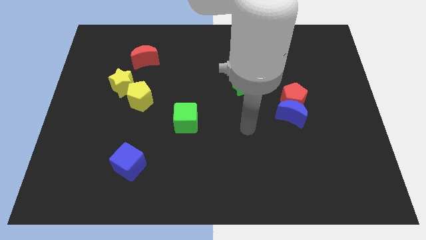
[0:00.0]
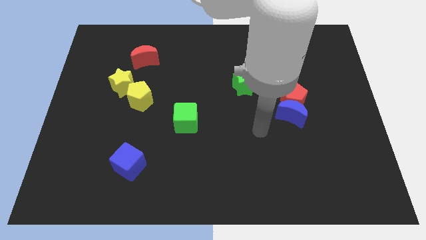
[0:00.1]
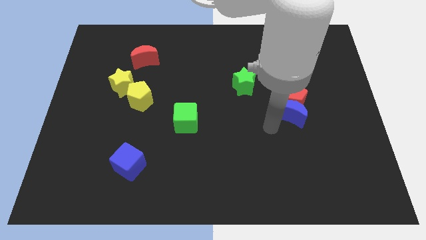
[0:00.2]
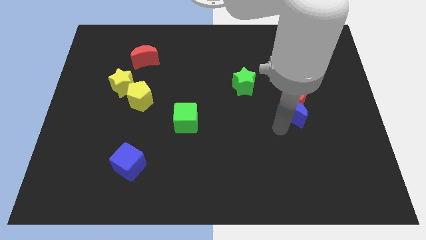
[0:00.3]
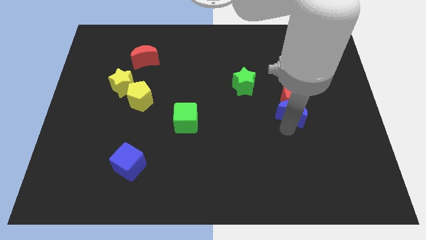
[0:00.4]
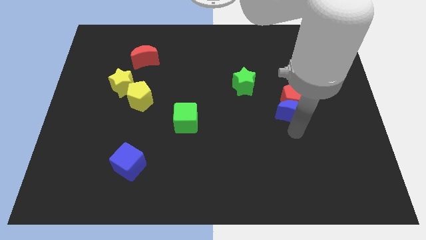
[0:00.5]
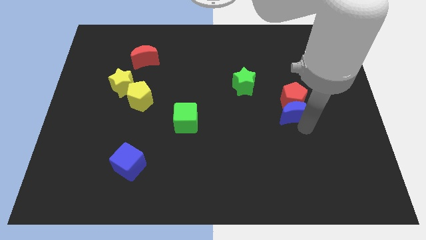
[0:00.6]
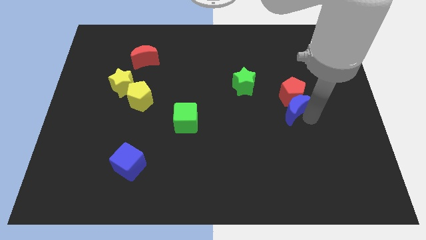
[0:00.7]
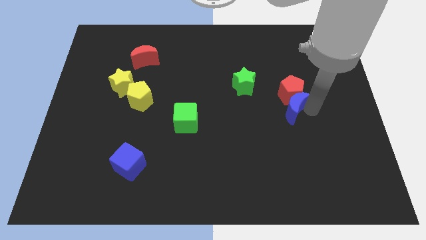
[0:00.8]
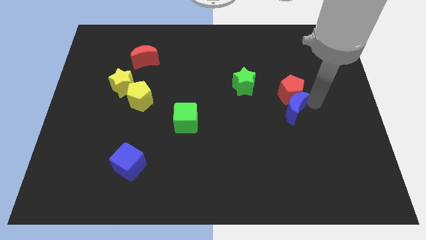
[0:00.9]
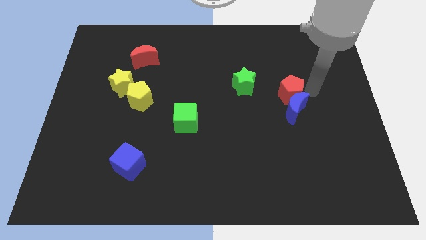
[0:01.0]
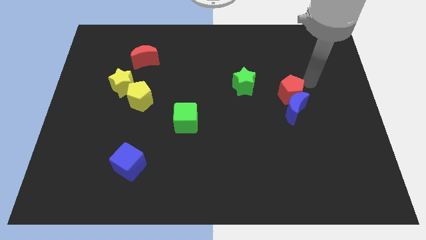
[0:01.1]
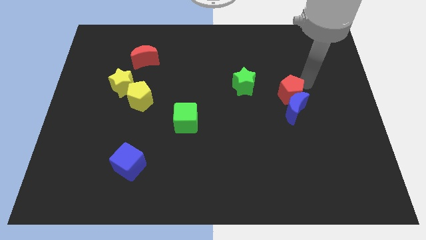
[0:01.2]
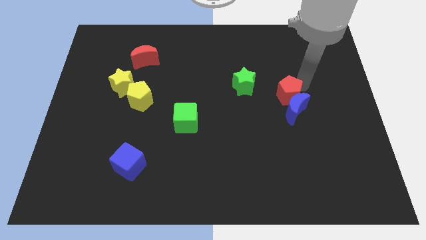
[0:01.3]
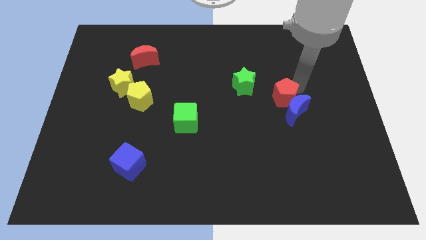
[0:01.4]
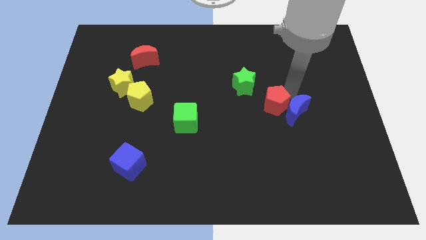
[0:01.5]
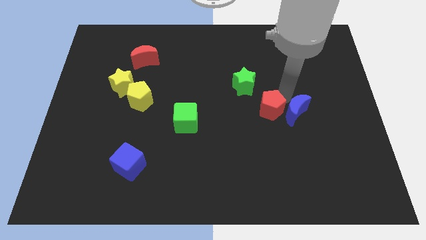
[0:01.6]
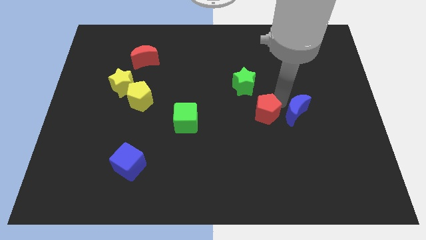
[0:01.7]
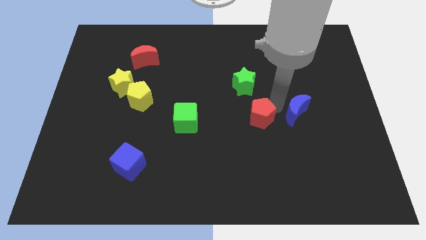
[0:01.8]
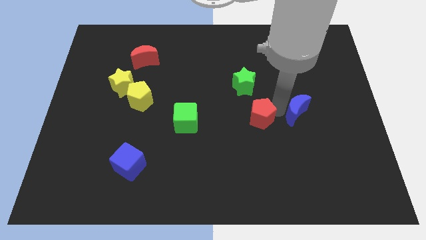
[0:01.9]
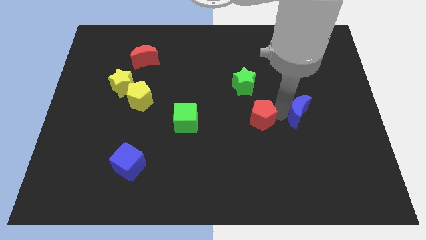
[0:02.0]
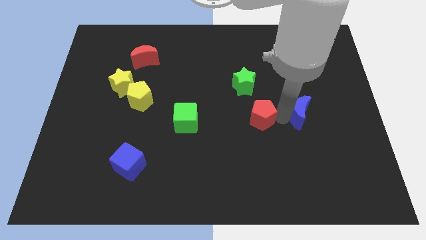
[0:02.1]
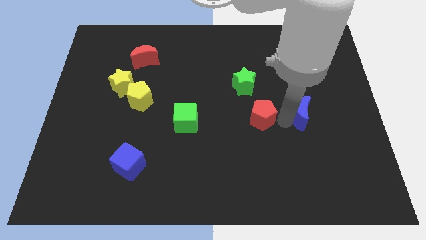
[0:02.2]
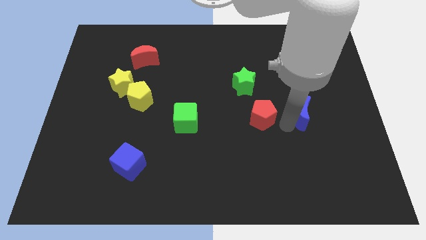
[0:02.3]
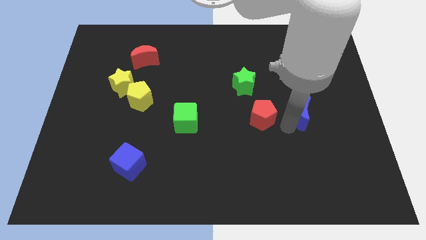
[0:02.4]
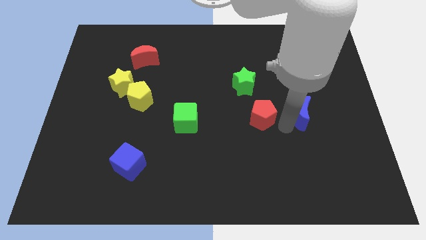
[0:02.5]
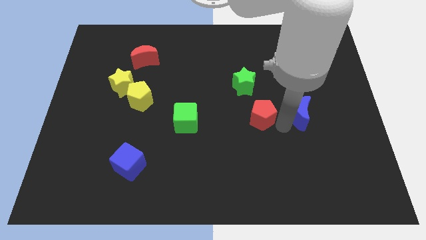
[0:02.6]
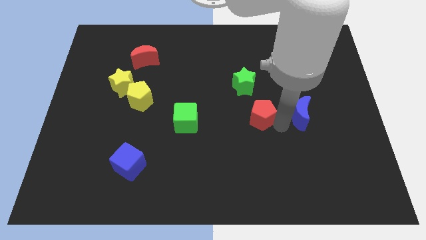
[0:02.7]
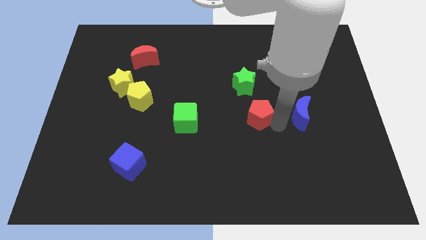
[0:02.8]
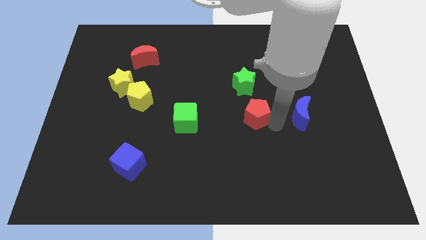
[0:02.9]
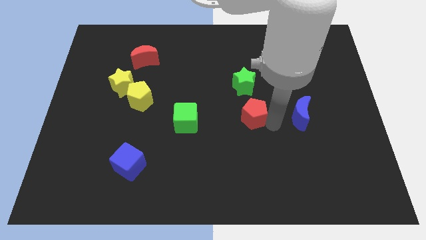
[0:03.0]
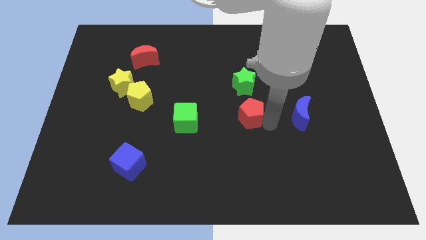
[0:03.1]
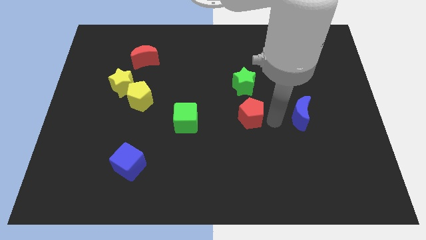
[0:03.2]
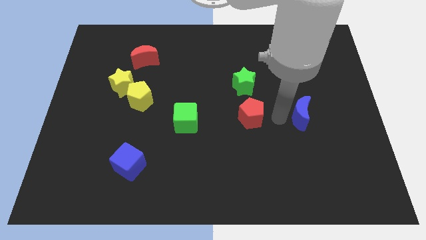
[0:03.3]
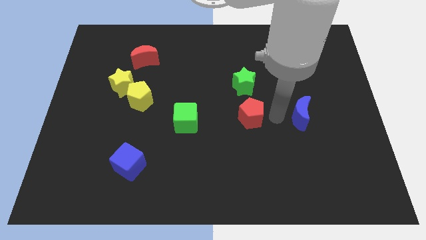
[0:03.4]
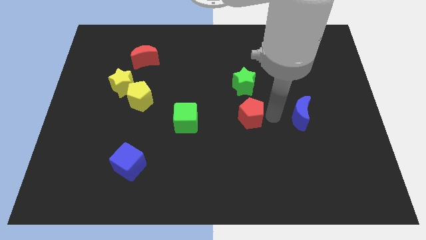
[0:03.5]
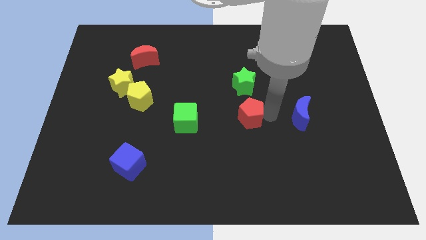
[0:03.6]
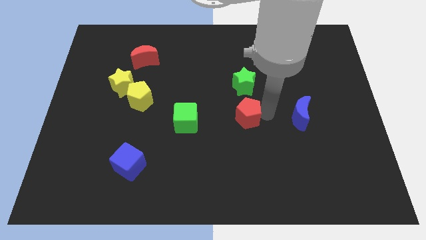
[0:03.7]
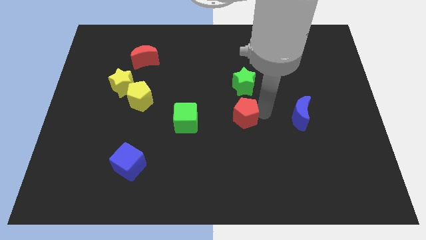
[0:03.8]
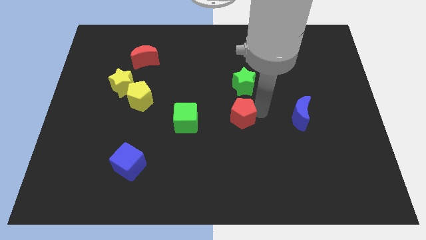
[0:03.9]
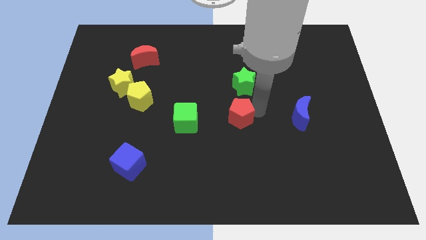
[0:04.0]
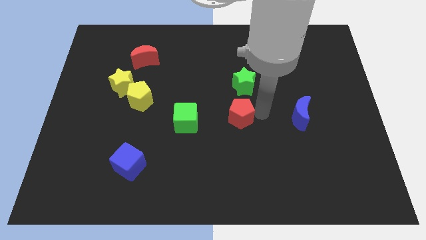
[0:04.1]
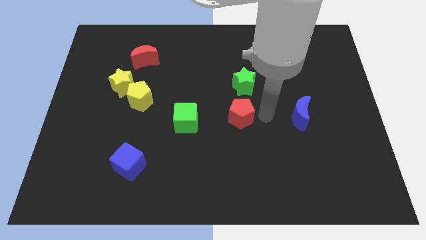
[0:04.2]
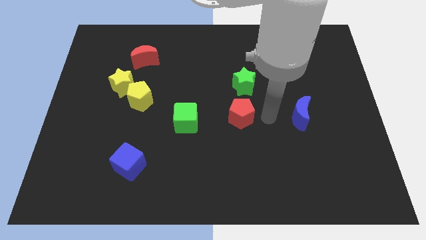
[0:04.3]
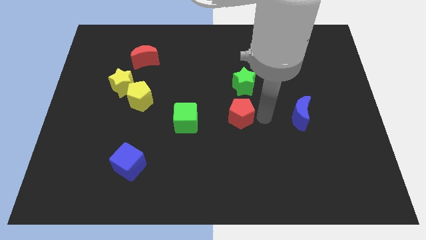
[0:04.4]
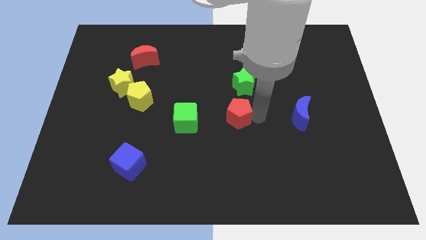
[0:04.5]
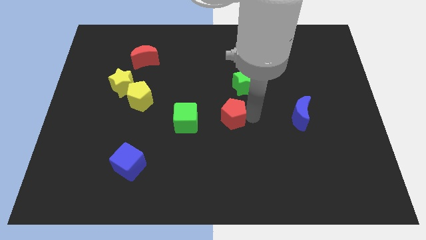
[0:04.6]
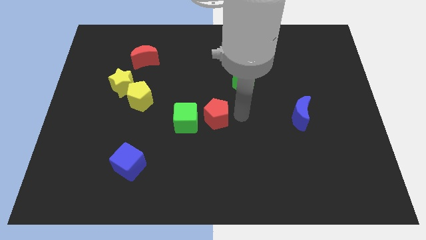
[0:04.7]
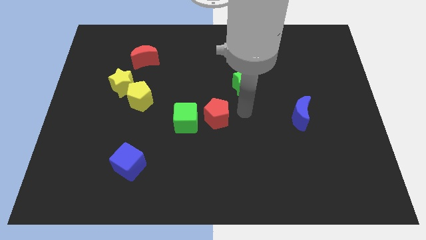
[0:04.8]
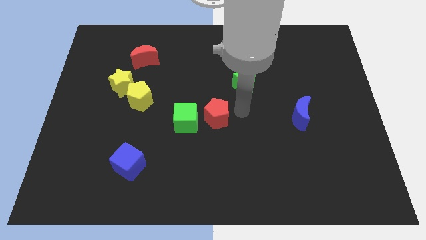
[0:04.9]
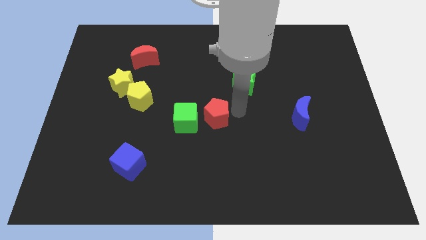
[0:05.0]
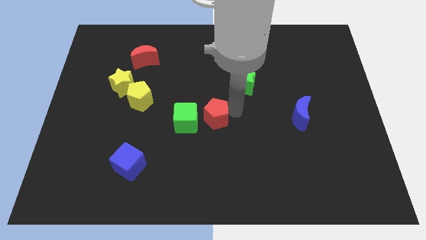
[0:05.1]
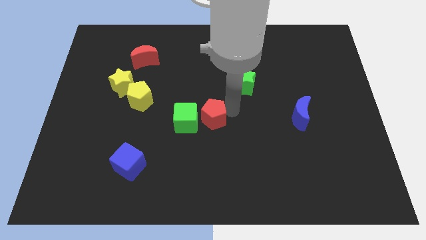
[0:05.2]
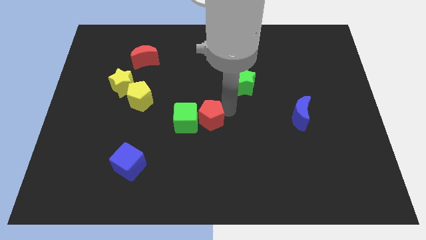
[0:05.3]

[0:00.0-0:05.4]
put the red pentagon to the green cube
